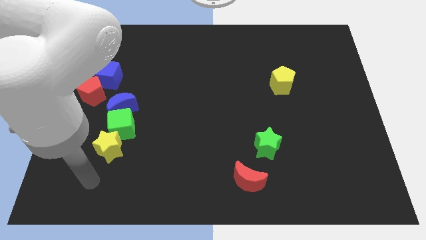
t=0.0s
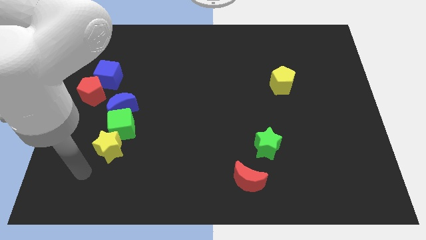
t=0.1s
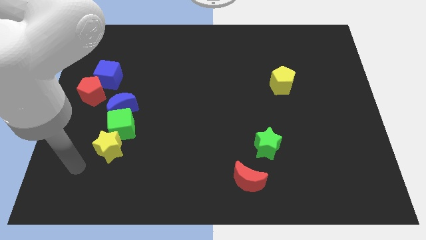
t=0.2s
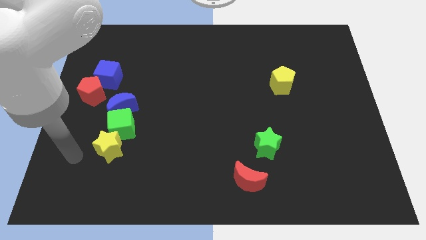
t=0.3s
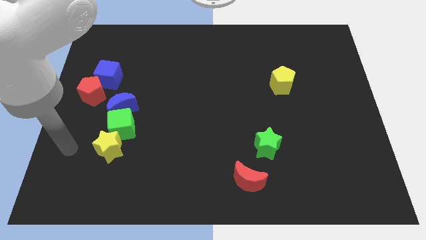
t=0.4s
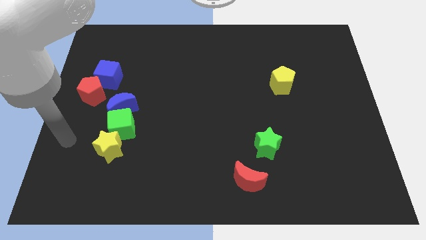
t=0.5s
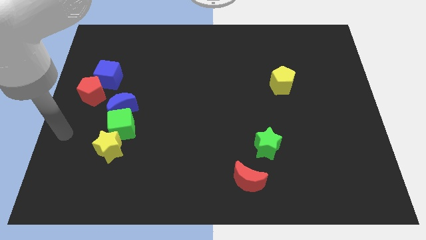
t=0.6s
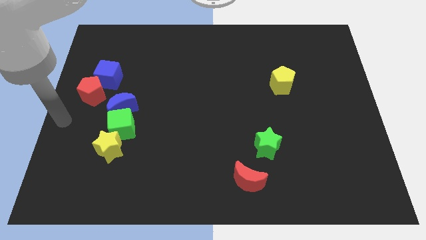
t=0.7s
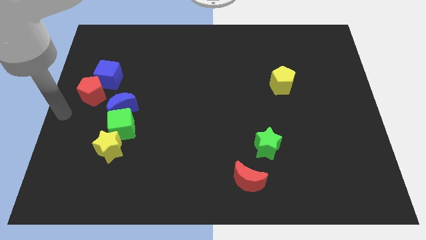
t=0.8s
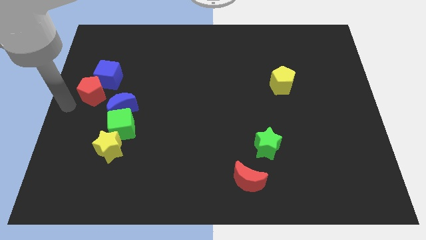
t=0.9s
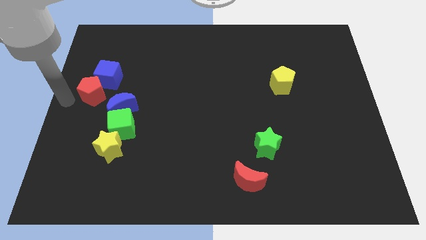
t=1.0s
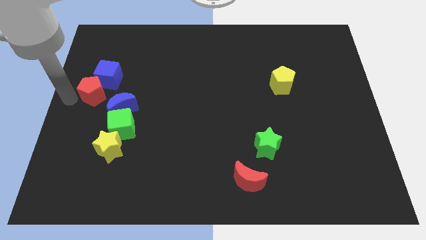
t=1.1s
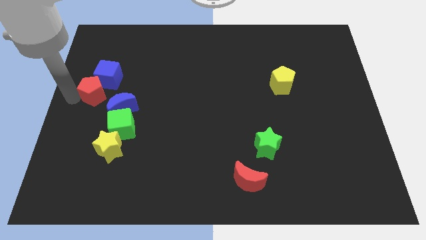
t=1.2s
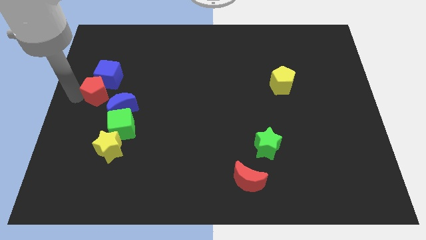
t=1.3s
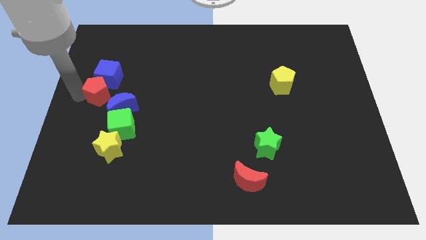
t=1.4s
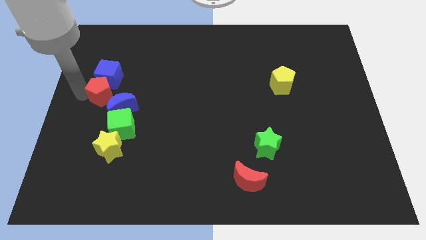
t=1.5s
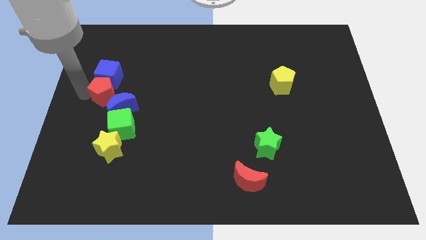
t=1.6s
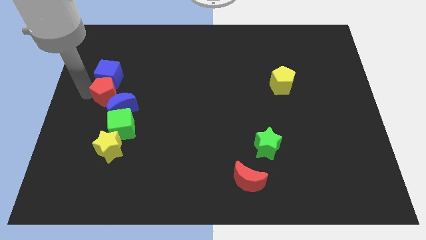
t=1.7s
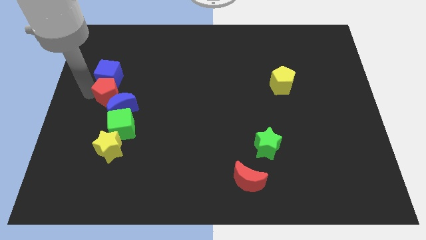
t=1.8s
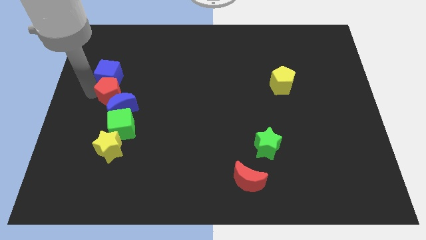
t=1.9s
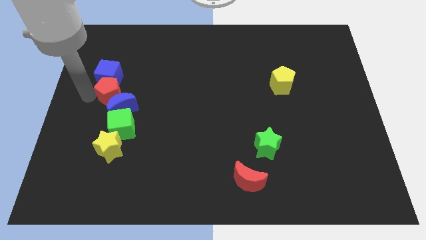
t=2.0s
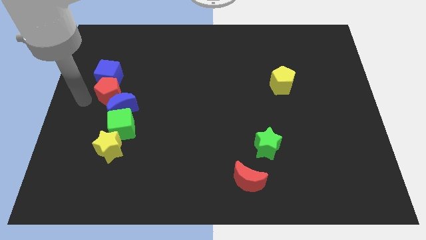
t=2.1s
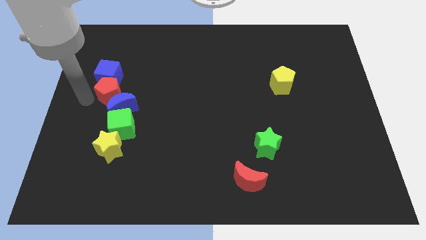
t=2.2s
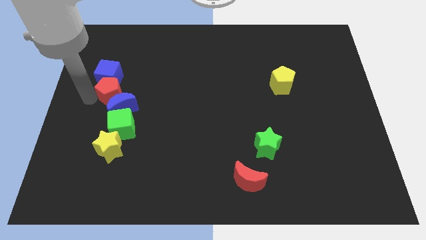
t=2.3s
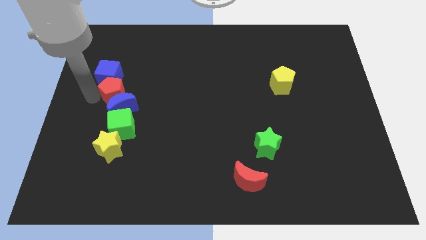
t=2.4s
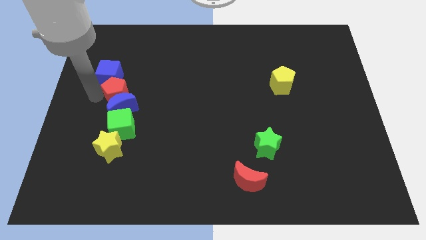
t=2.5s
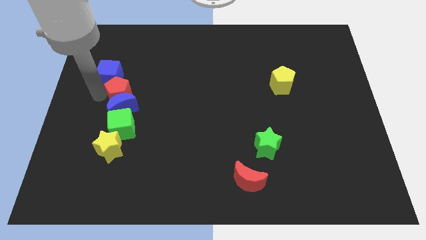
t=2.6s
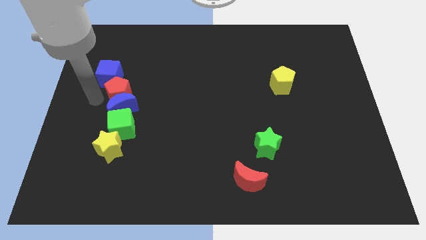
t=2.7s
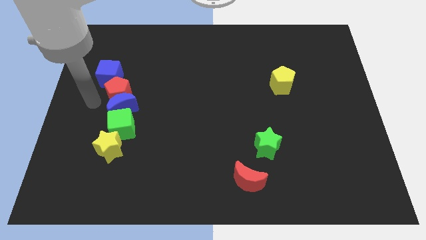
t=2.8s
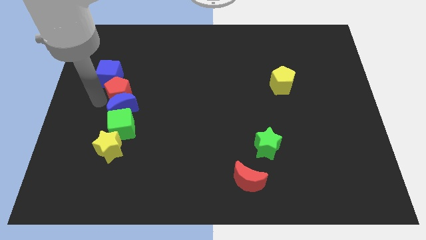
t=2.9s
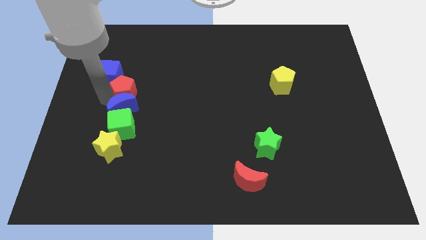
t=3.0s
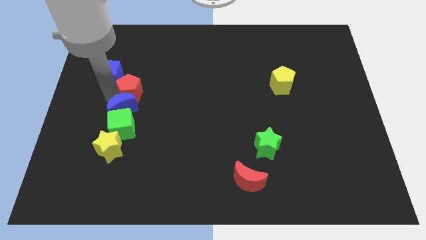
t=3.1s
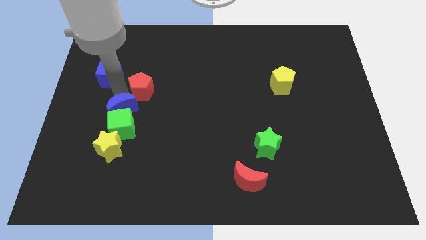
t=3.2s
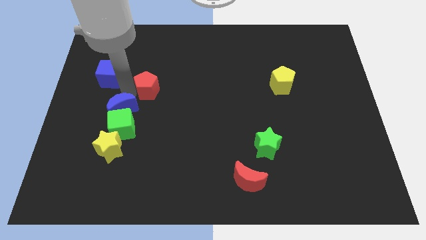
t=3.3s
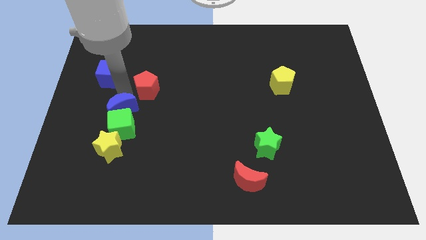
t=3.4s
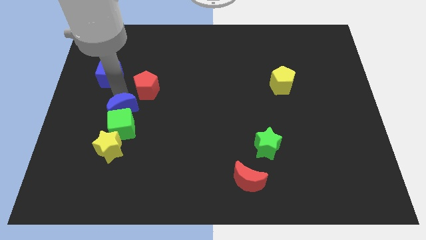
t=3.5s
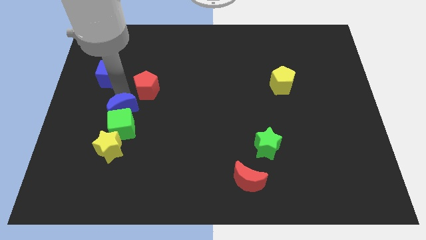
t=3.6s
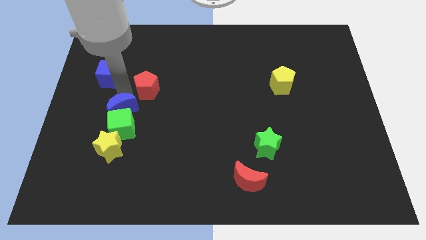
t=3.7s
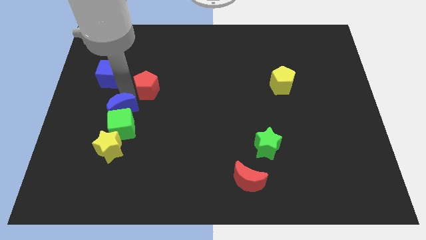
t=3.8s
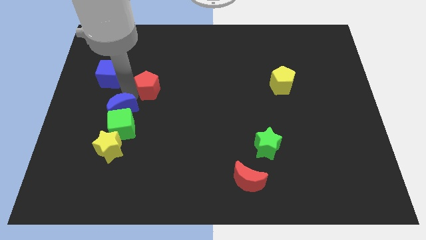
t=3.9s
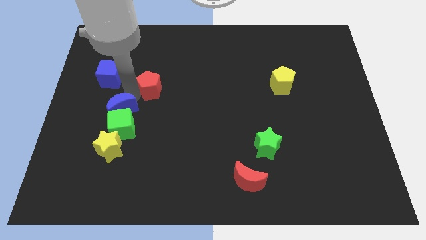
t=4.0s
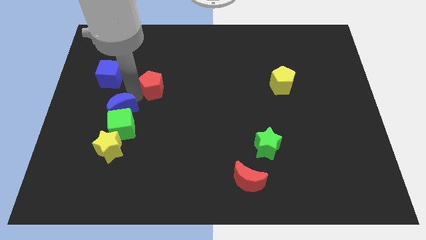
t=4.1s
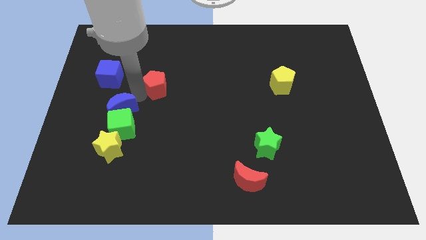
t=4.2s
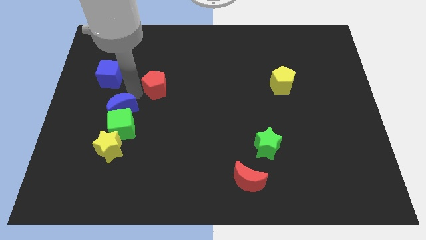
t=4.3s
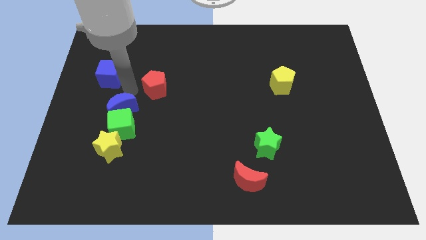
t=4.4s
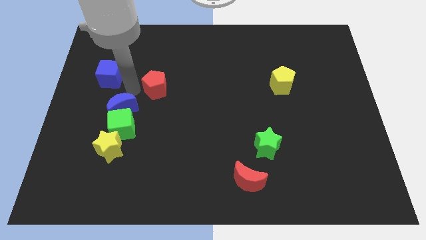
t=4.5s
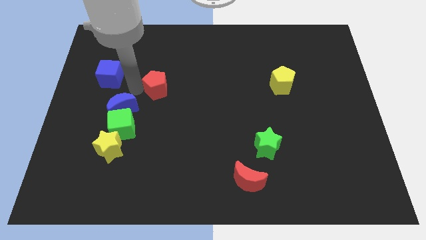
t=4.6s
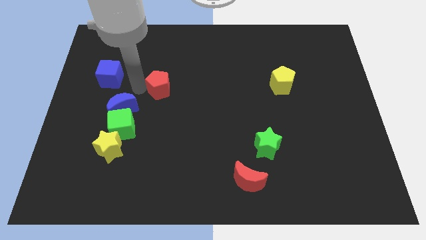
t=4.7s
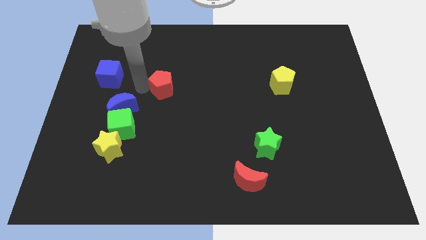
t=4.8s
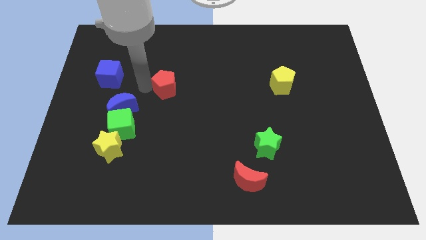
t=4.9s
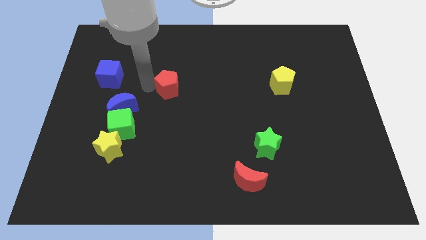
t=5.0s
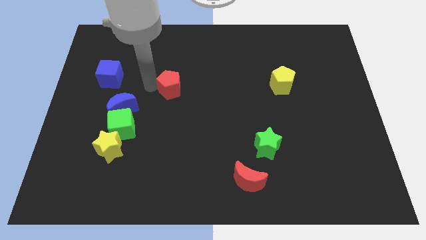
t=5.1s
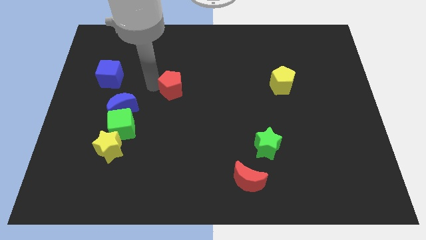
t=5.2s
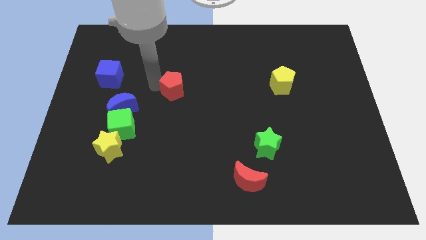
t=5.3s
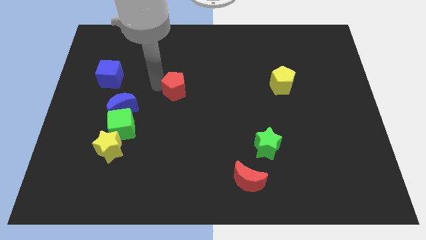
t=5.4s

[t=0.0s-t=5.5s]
push the red pentagon right

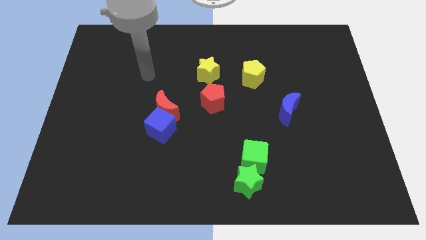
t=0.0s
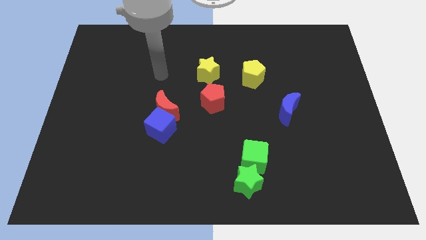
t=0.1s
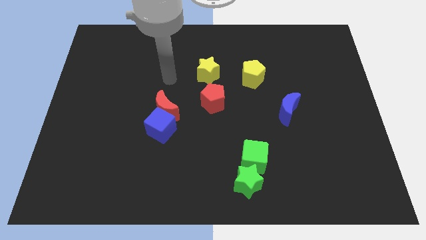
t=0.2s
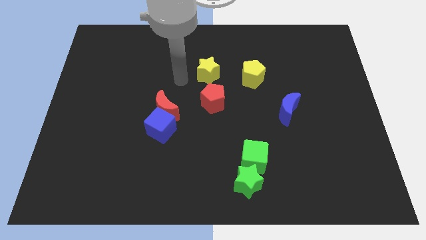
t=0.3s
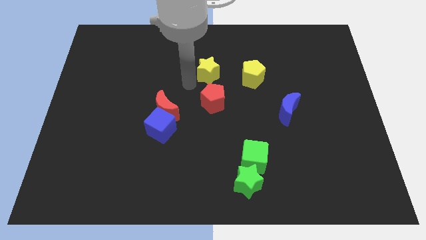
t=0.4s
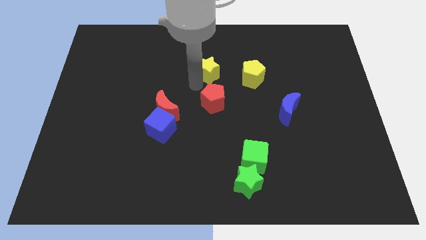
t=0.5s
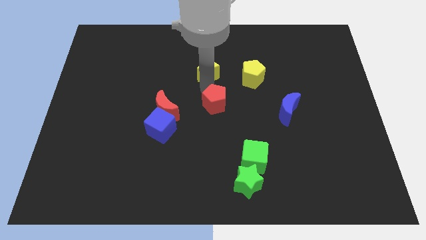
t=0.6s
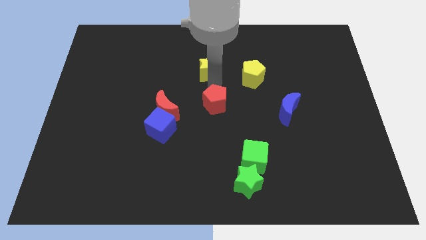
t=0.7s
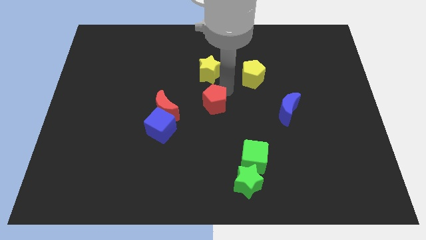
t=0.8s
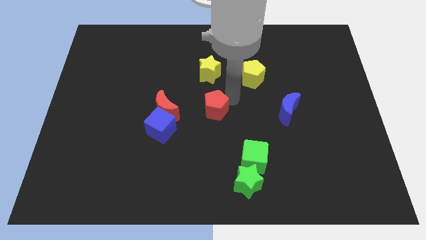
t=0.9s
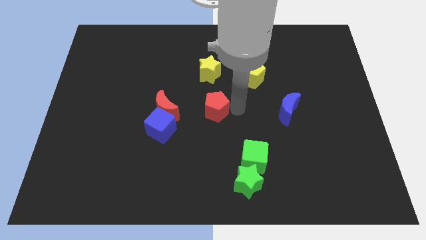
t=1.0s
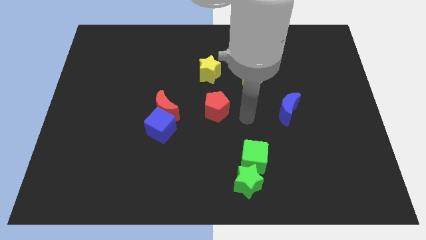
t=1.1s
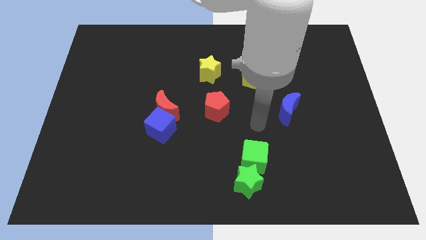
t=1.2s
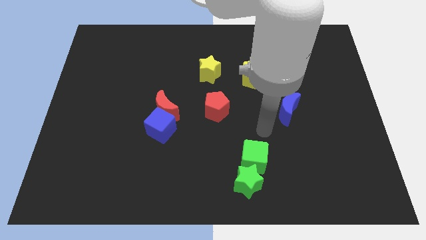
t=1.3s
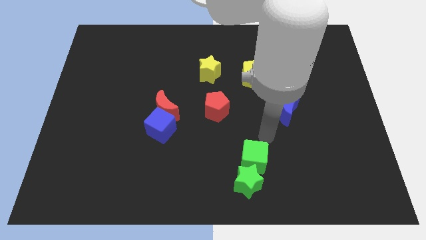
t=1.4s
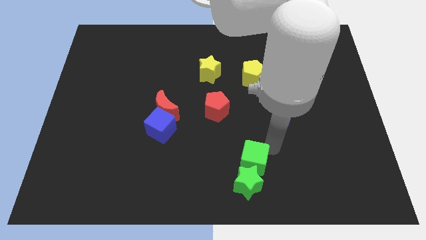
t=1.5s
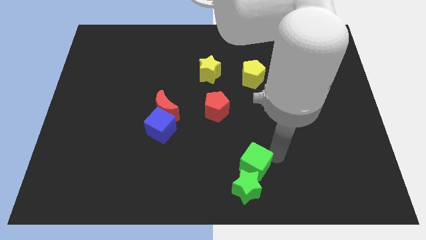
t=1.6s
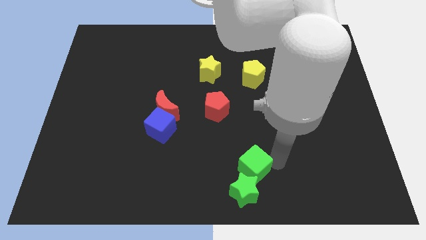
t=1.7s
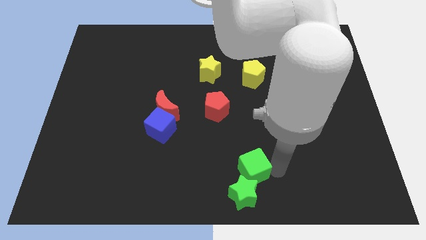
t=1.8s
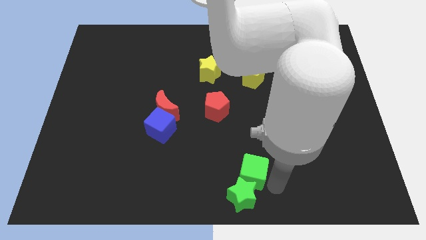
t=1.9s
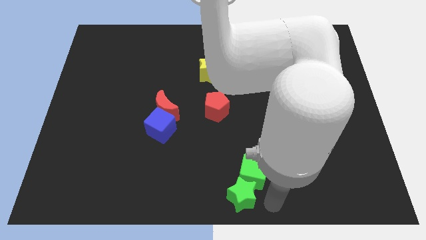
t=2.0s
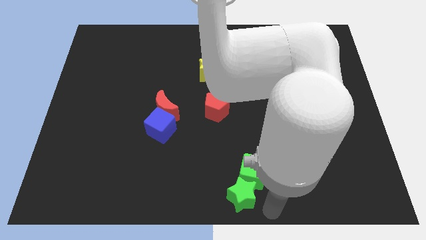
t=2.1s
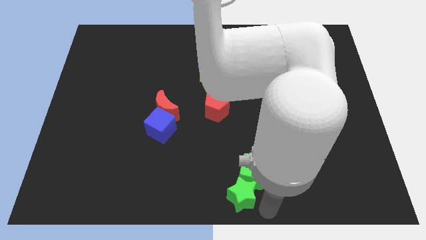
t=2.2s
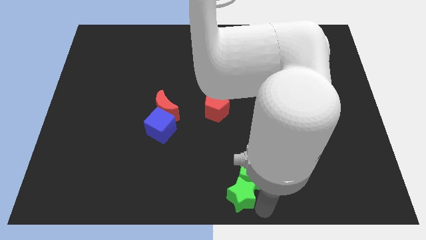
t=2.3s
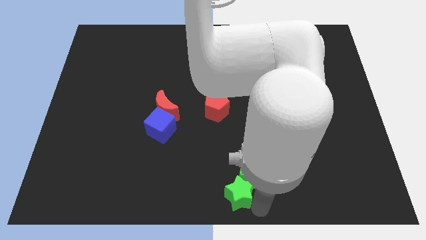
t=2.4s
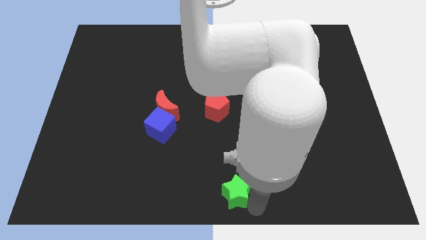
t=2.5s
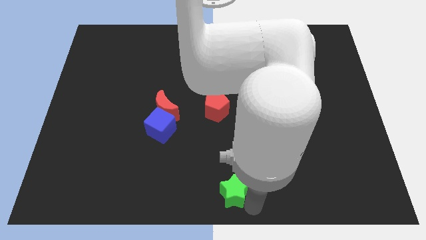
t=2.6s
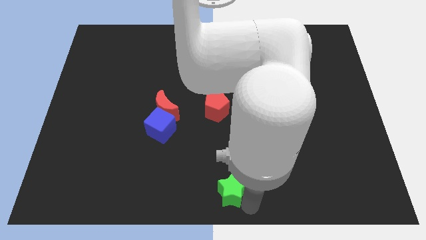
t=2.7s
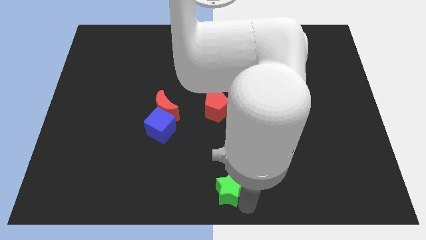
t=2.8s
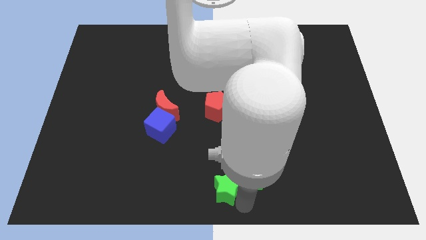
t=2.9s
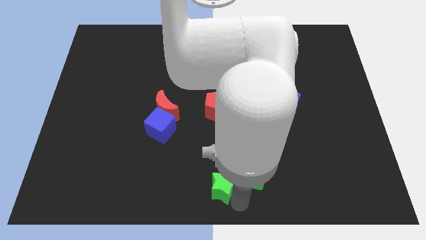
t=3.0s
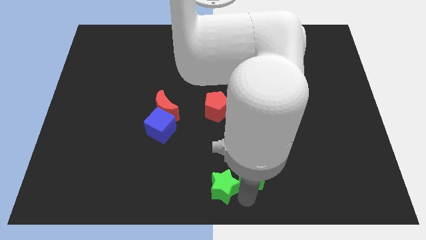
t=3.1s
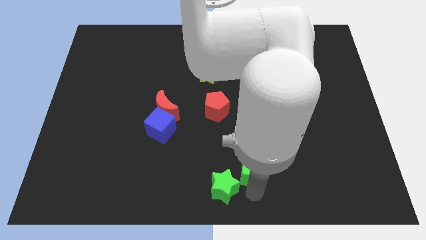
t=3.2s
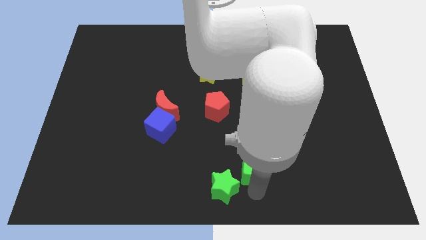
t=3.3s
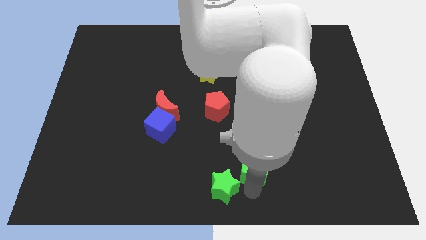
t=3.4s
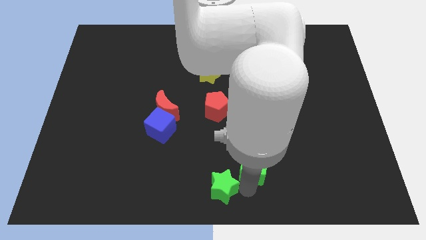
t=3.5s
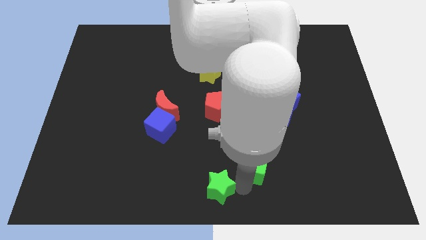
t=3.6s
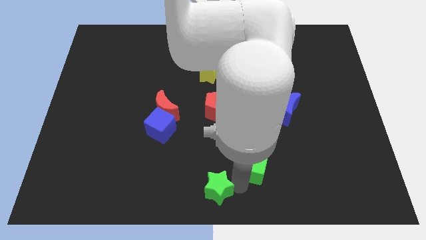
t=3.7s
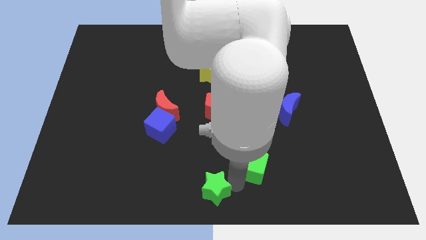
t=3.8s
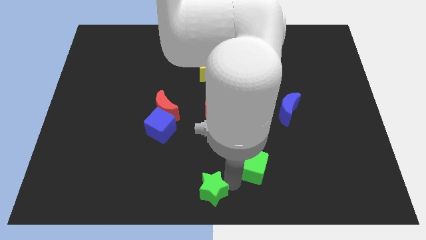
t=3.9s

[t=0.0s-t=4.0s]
push the green star left a little
